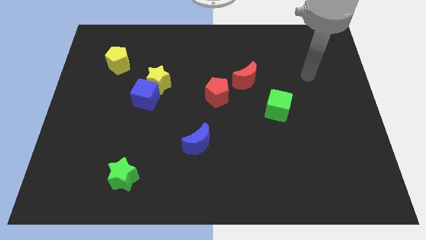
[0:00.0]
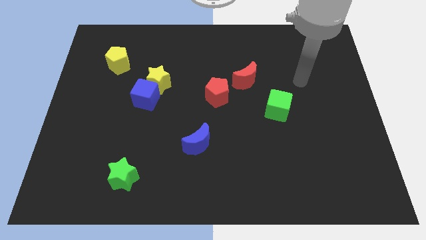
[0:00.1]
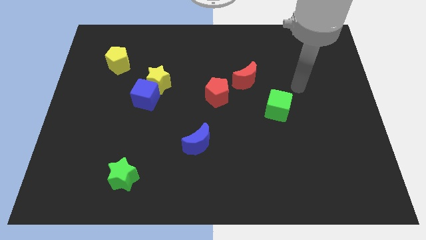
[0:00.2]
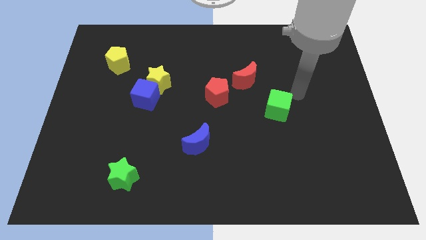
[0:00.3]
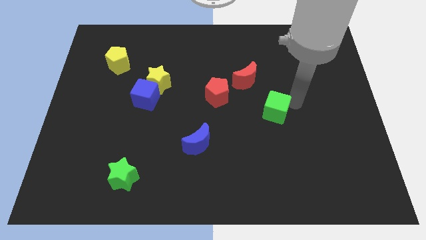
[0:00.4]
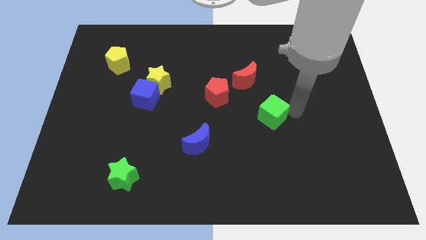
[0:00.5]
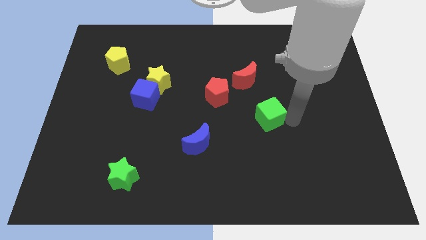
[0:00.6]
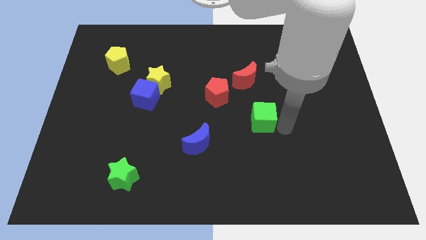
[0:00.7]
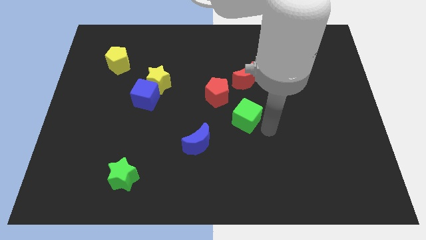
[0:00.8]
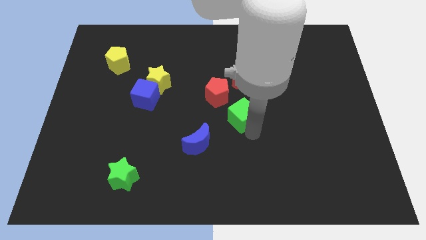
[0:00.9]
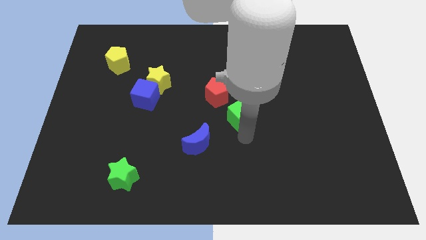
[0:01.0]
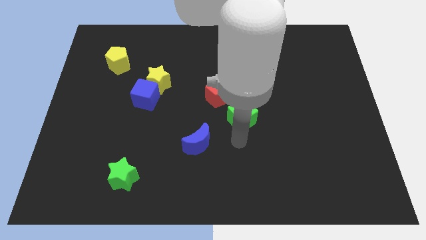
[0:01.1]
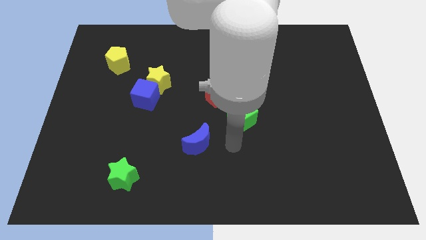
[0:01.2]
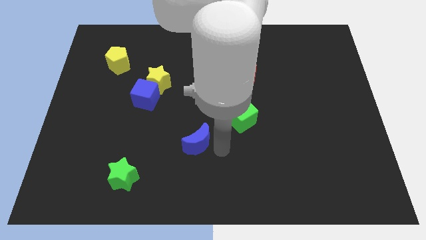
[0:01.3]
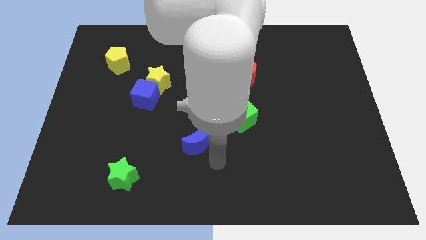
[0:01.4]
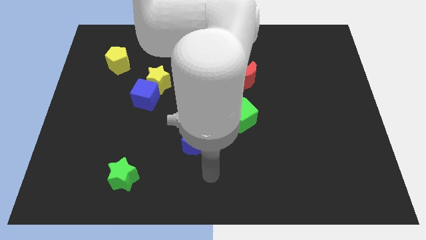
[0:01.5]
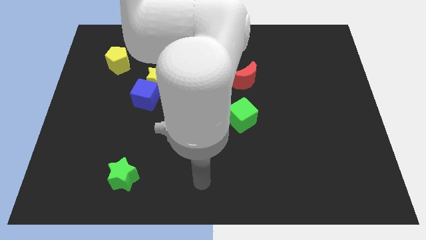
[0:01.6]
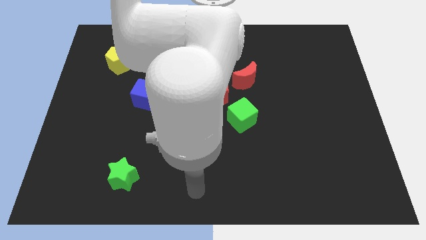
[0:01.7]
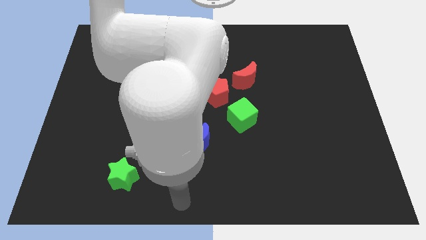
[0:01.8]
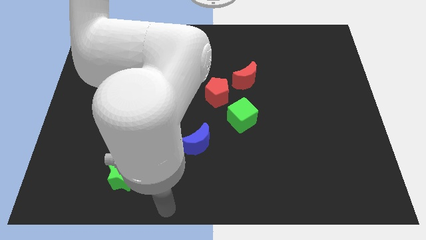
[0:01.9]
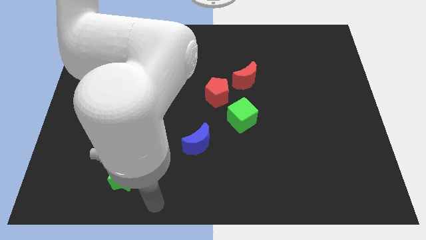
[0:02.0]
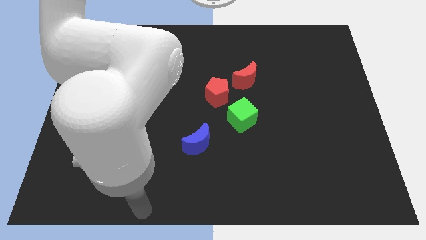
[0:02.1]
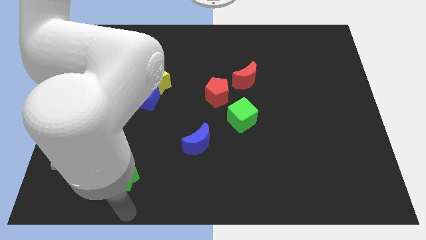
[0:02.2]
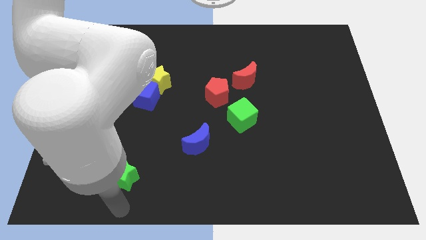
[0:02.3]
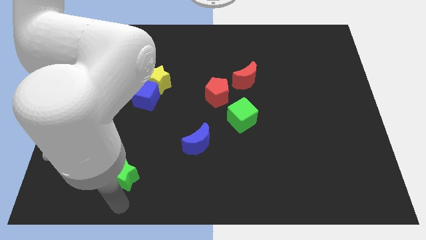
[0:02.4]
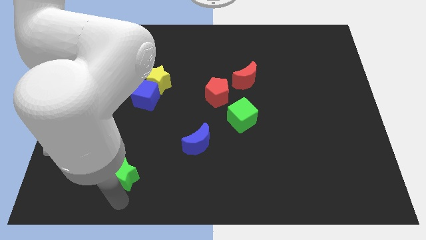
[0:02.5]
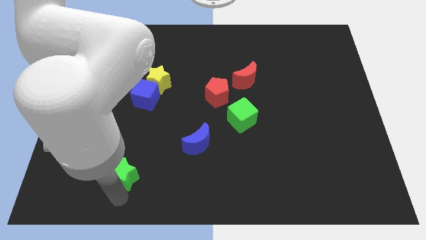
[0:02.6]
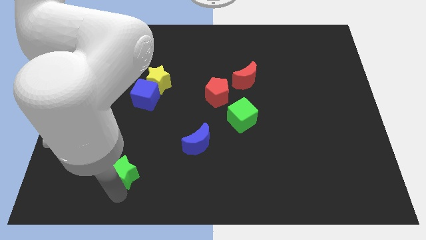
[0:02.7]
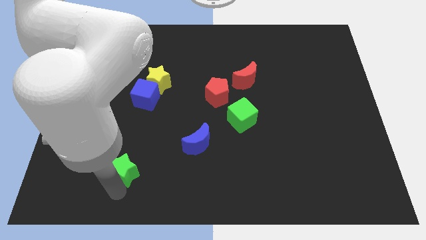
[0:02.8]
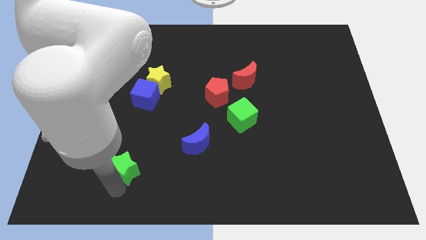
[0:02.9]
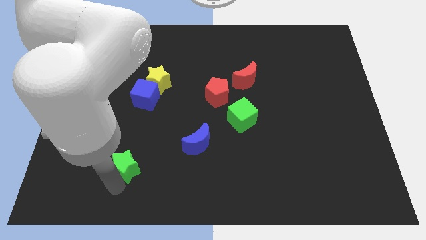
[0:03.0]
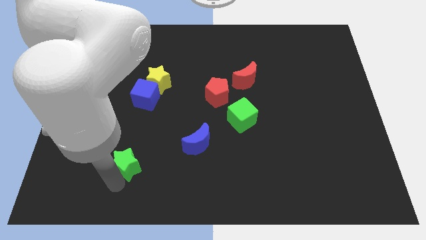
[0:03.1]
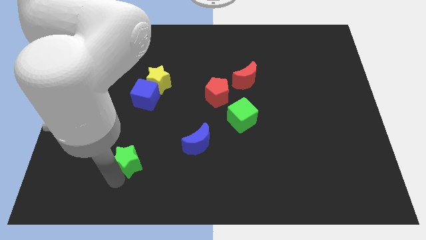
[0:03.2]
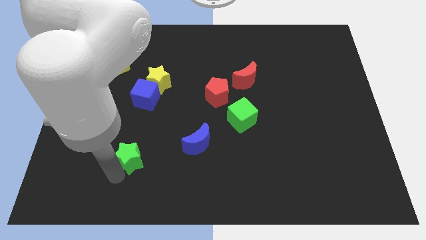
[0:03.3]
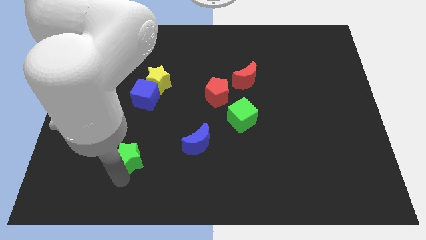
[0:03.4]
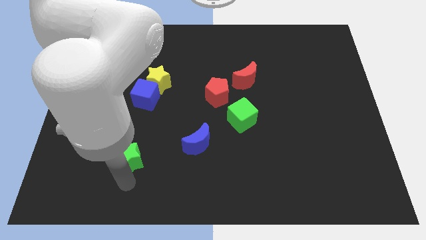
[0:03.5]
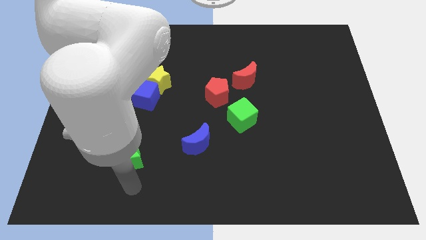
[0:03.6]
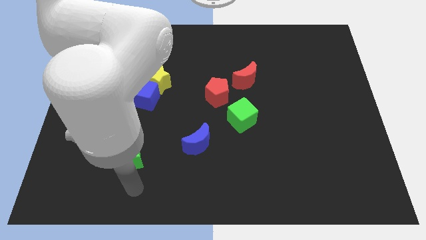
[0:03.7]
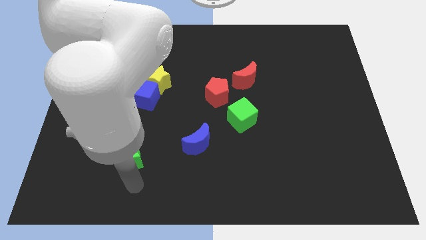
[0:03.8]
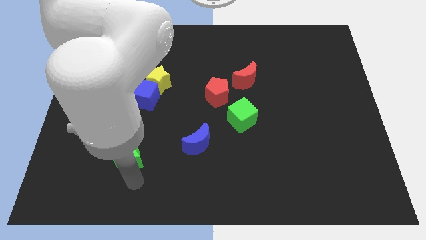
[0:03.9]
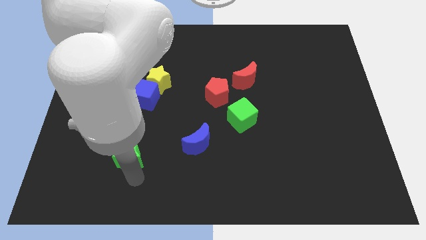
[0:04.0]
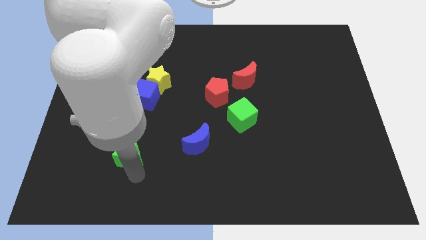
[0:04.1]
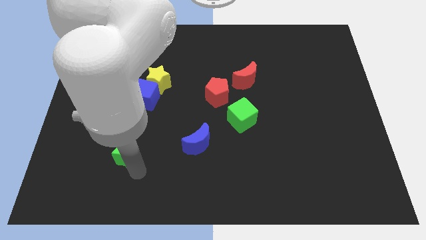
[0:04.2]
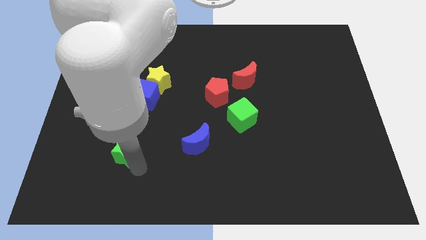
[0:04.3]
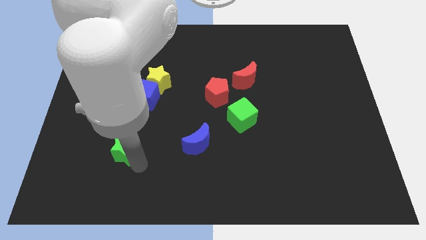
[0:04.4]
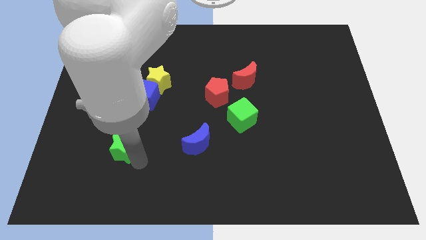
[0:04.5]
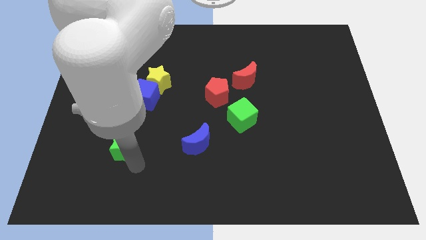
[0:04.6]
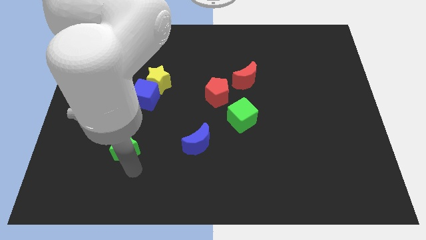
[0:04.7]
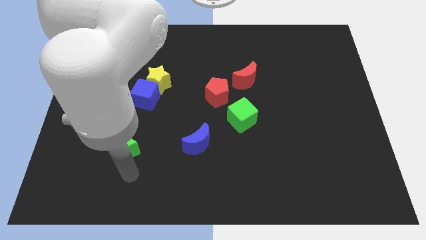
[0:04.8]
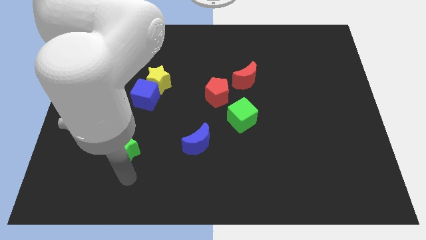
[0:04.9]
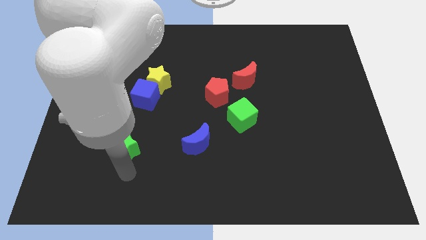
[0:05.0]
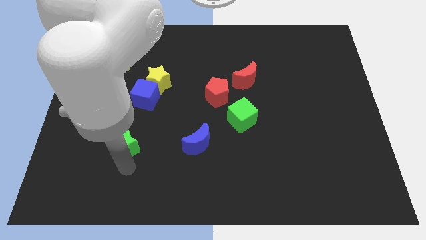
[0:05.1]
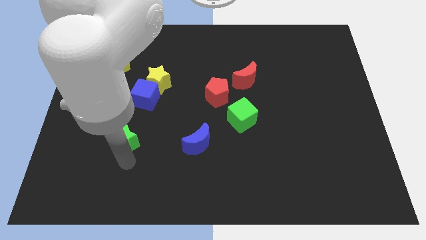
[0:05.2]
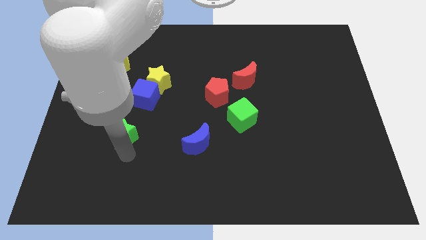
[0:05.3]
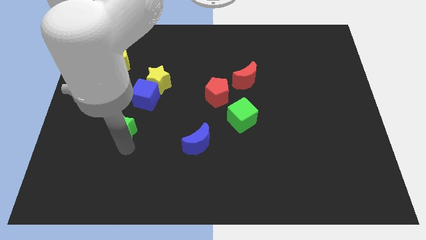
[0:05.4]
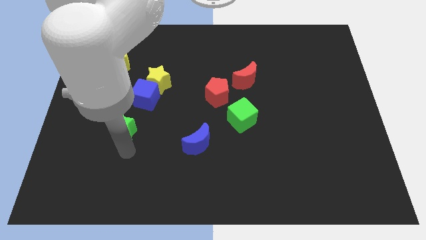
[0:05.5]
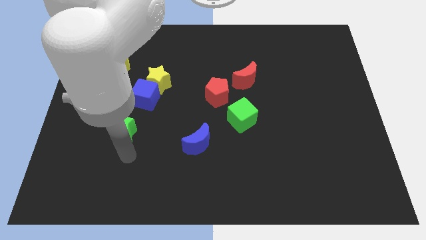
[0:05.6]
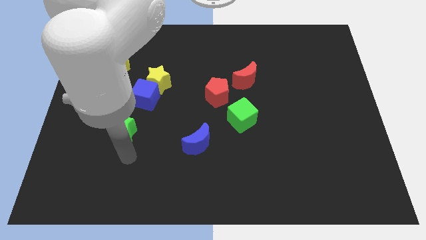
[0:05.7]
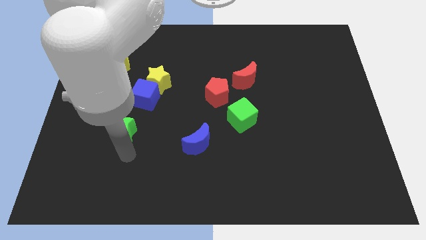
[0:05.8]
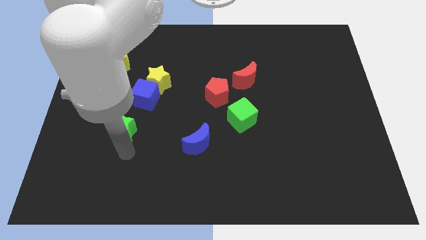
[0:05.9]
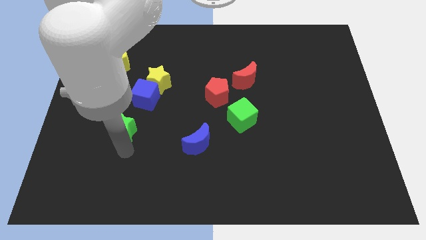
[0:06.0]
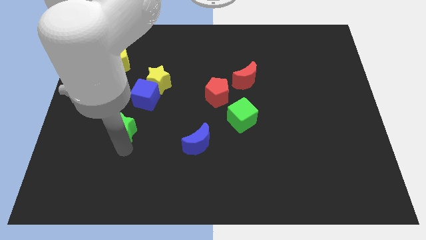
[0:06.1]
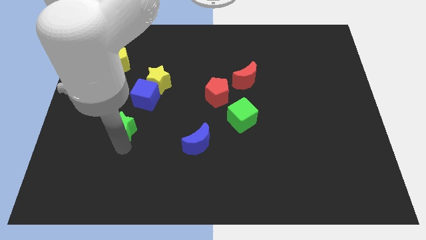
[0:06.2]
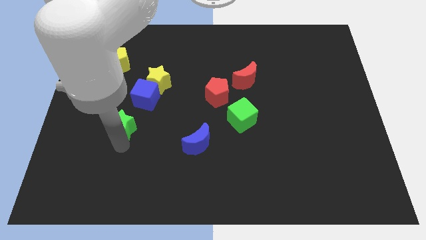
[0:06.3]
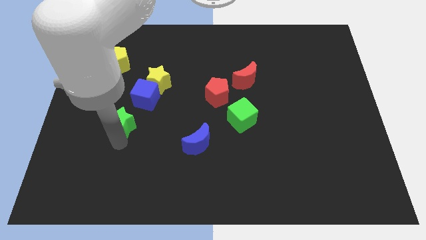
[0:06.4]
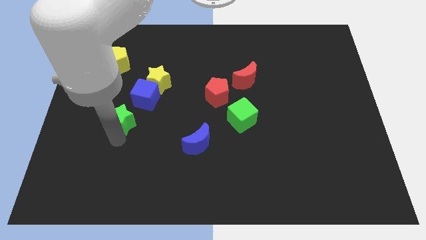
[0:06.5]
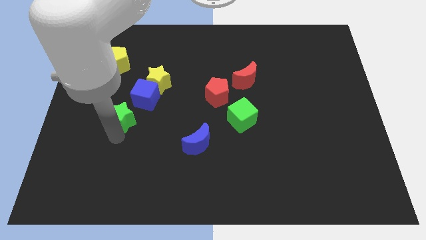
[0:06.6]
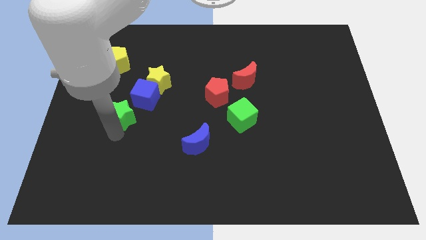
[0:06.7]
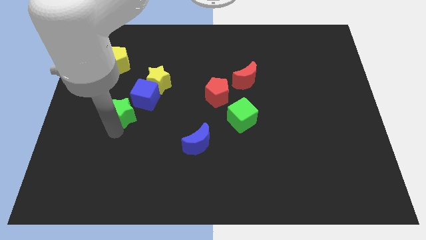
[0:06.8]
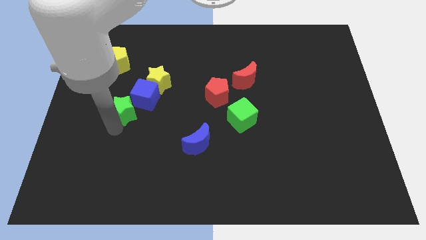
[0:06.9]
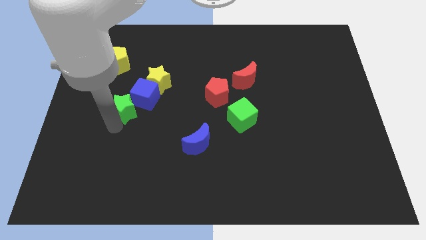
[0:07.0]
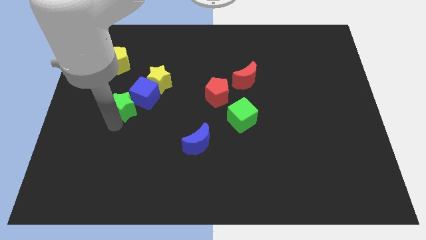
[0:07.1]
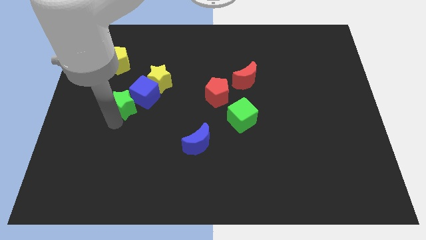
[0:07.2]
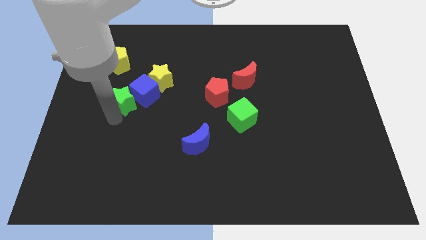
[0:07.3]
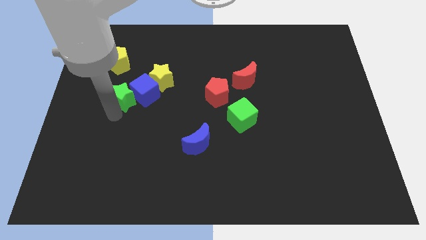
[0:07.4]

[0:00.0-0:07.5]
push the green star upwards

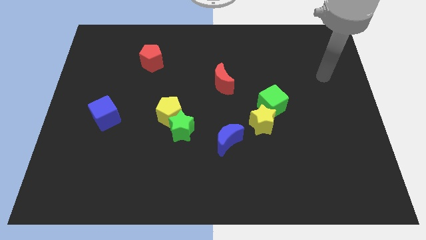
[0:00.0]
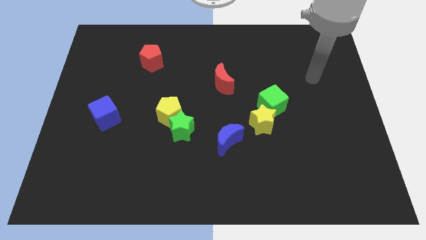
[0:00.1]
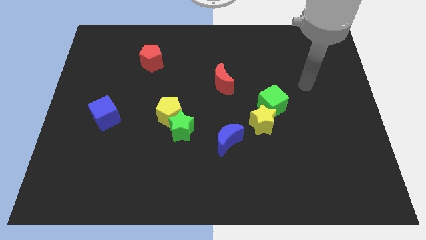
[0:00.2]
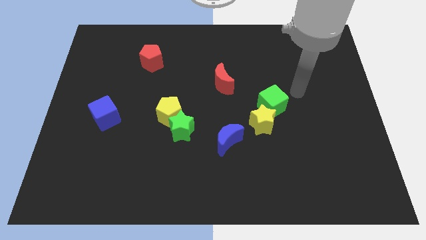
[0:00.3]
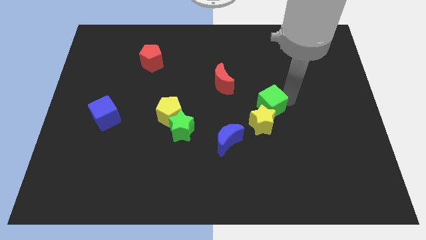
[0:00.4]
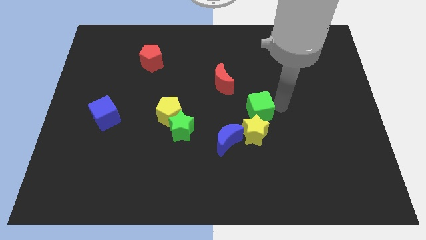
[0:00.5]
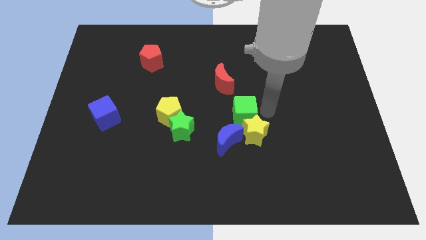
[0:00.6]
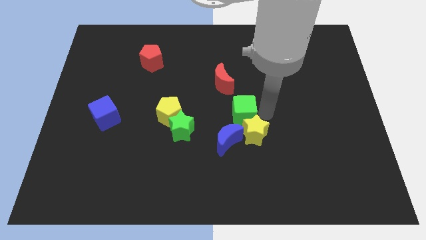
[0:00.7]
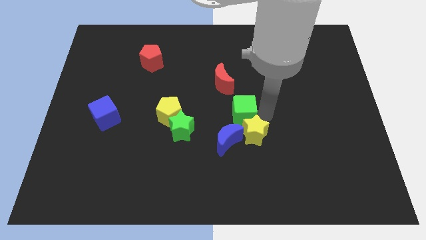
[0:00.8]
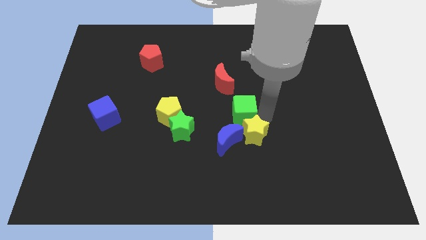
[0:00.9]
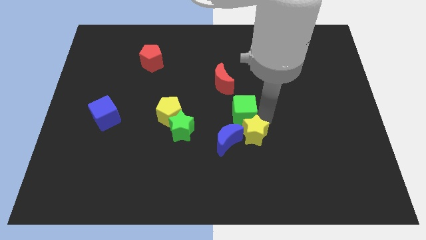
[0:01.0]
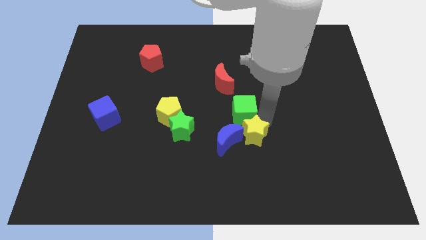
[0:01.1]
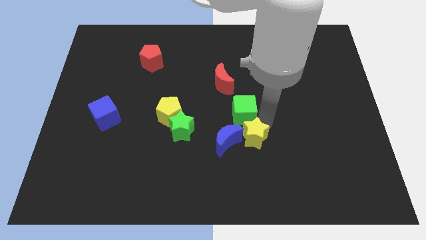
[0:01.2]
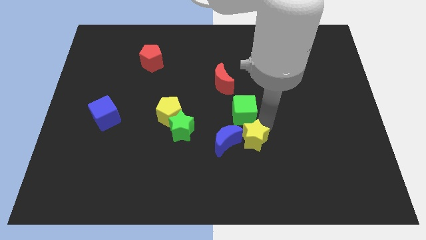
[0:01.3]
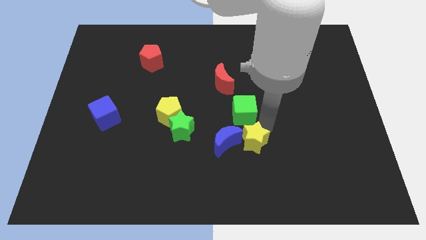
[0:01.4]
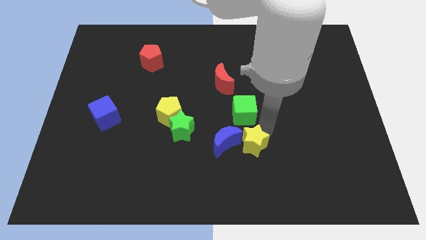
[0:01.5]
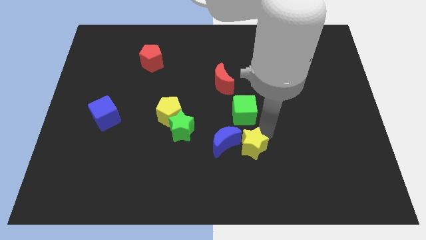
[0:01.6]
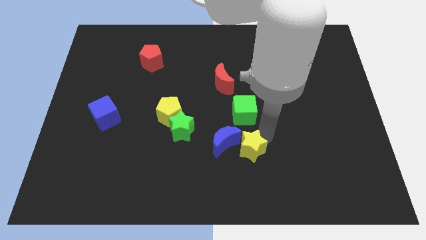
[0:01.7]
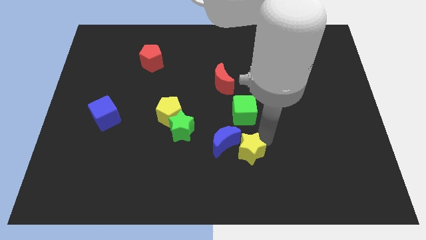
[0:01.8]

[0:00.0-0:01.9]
slide the yellow star a bit down and then to the left
